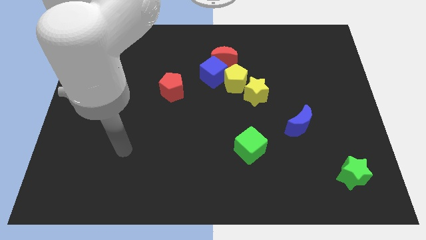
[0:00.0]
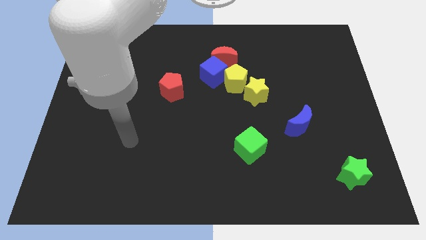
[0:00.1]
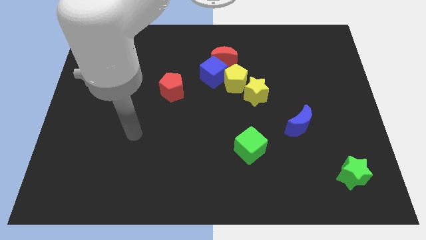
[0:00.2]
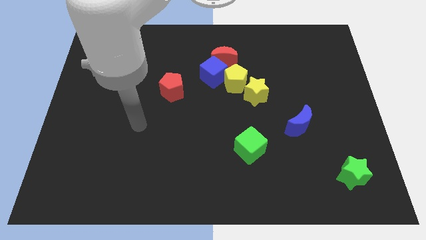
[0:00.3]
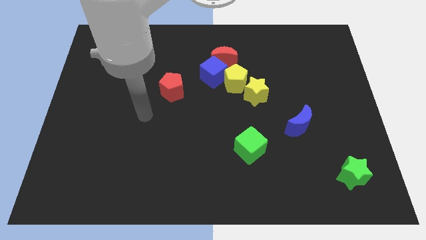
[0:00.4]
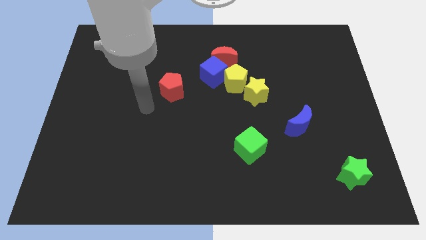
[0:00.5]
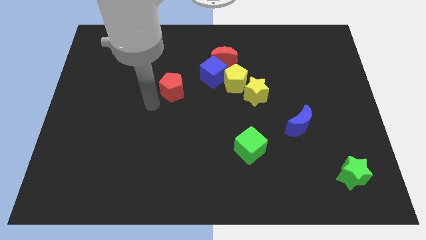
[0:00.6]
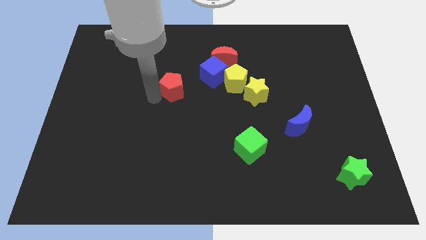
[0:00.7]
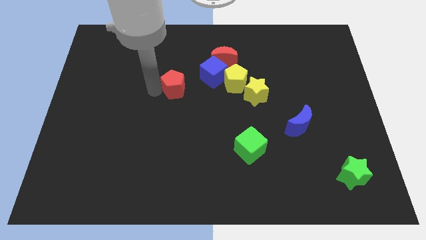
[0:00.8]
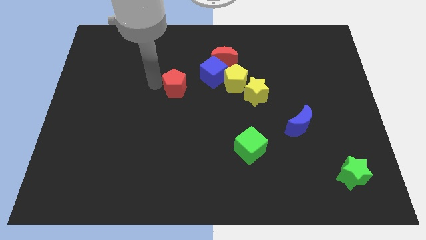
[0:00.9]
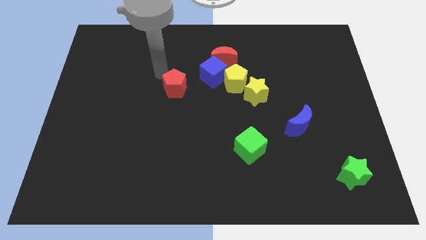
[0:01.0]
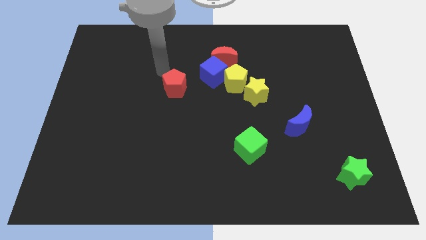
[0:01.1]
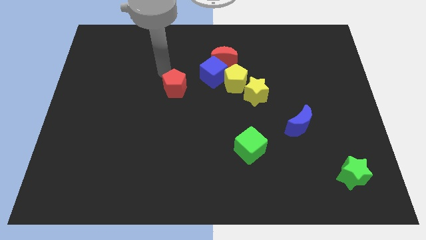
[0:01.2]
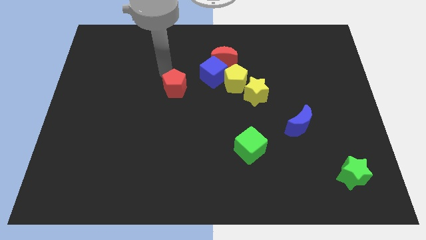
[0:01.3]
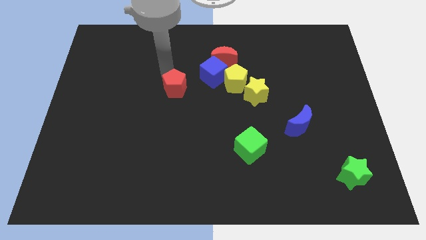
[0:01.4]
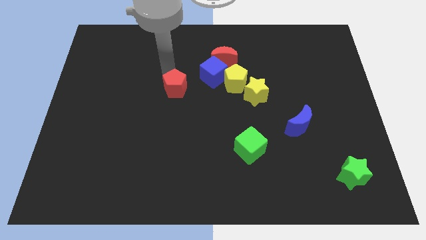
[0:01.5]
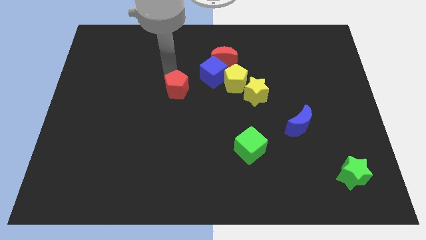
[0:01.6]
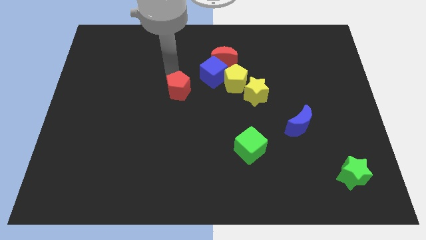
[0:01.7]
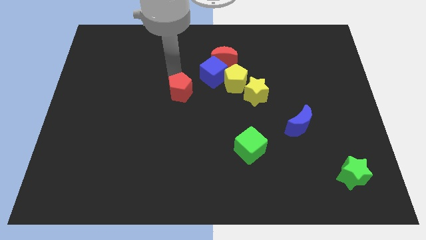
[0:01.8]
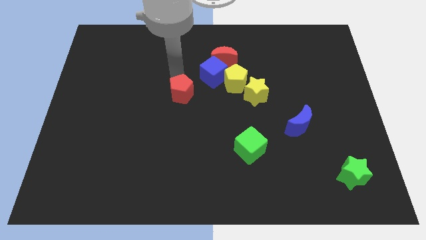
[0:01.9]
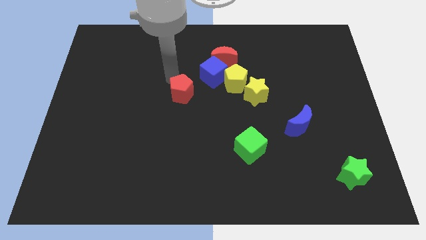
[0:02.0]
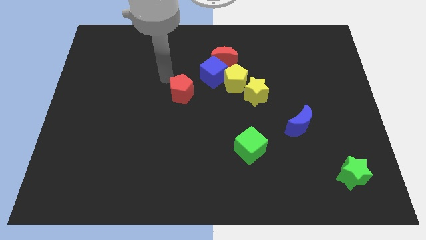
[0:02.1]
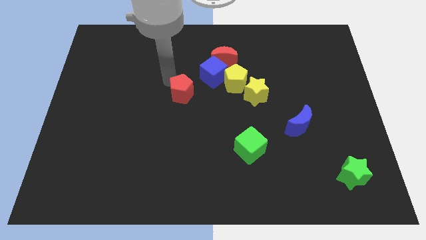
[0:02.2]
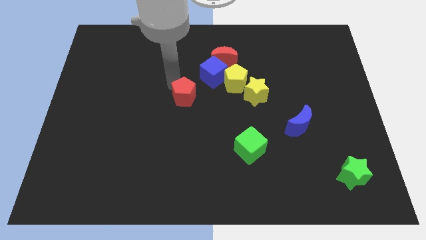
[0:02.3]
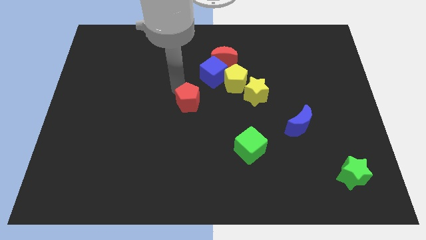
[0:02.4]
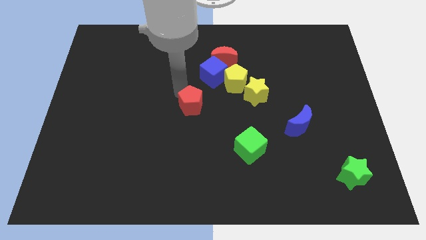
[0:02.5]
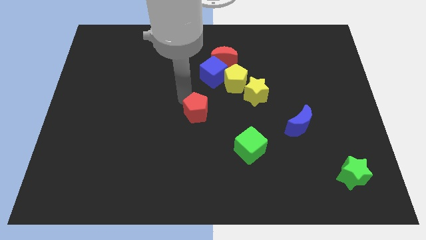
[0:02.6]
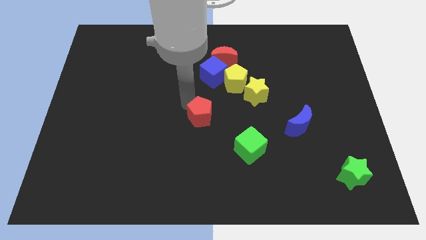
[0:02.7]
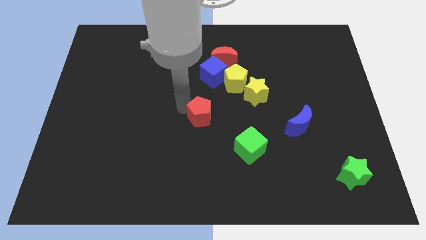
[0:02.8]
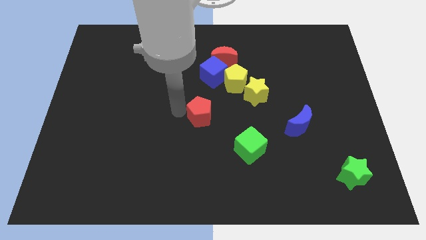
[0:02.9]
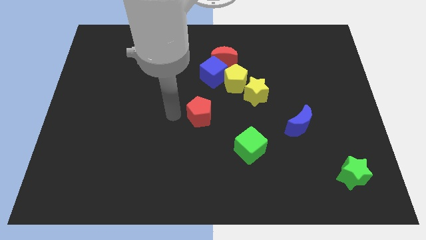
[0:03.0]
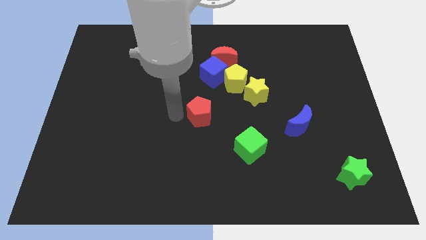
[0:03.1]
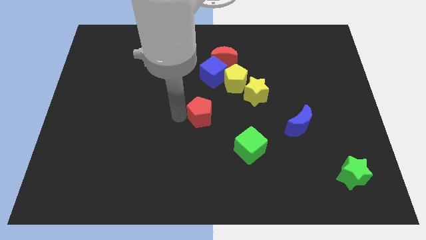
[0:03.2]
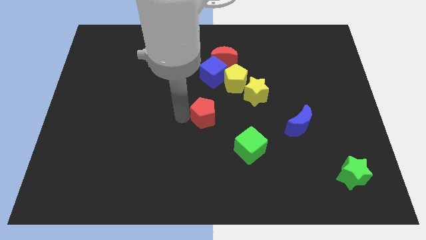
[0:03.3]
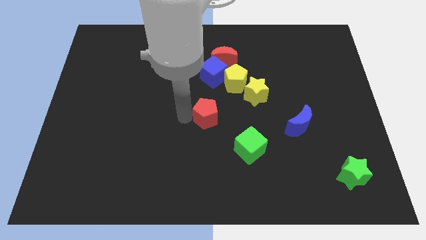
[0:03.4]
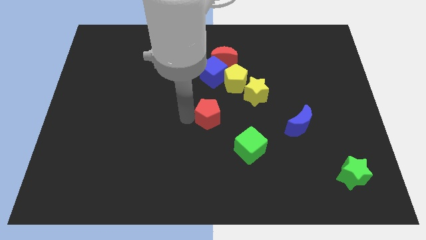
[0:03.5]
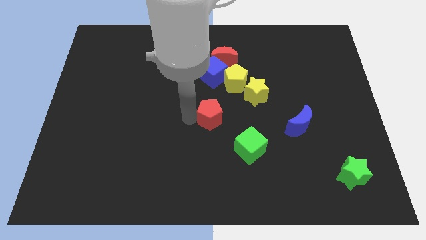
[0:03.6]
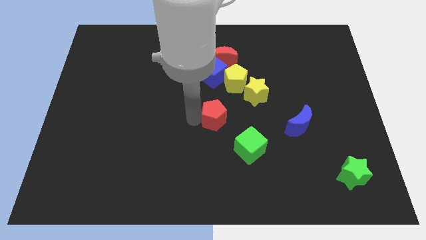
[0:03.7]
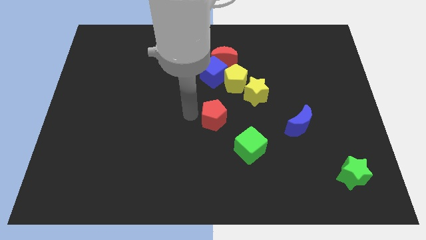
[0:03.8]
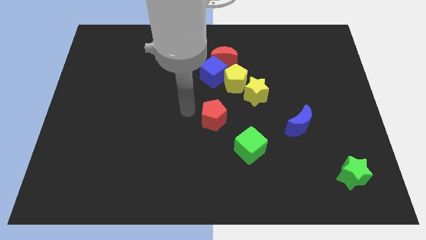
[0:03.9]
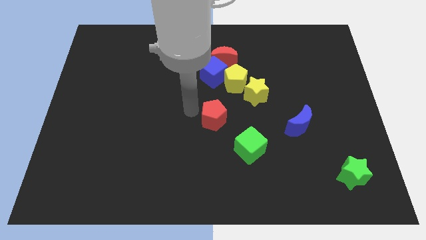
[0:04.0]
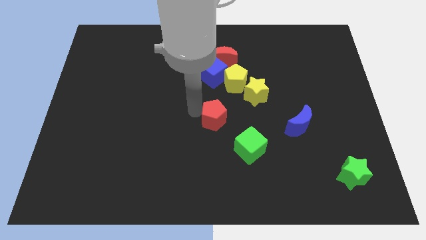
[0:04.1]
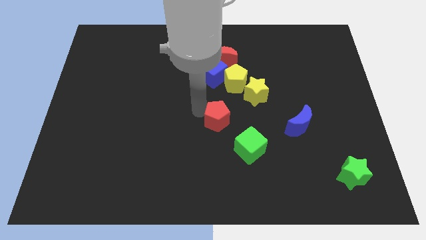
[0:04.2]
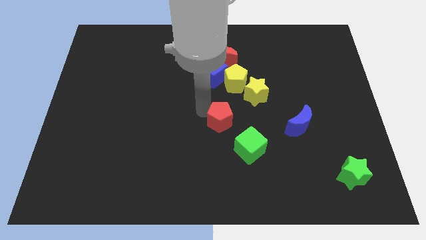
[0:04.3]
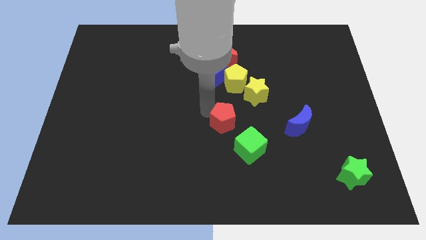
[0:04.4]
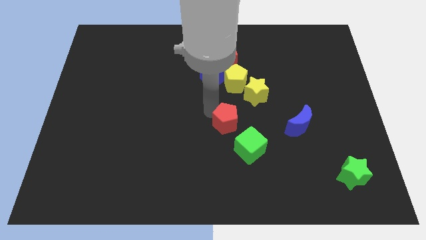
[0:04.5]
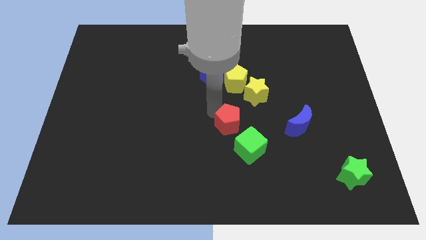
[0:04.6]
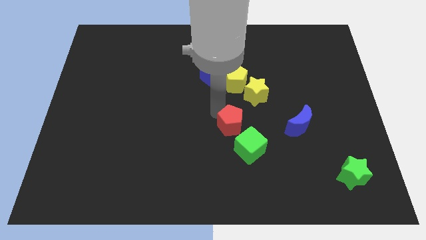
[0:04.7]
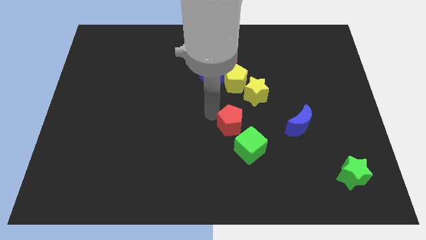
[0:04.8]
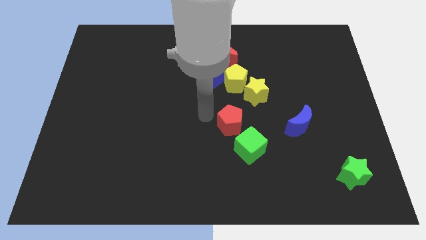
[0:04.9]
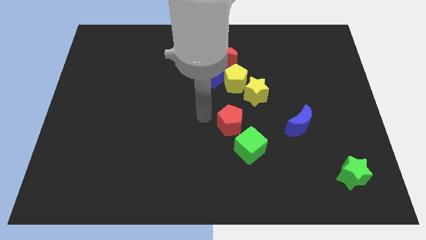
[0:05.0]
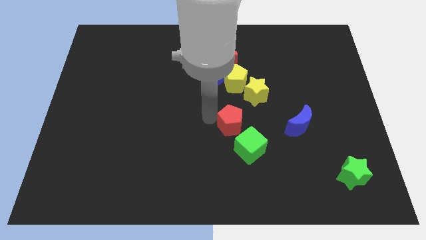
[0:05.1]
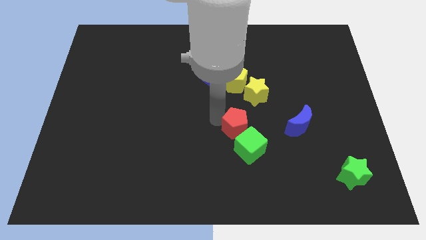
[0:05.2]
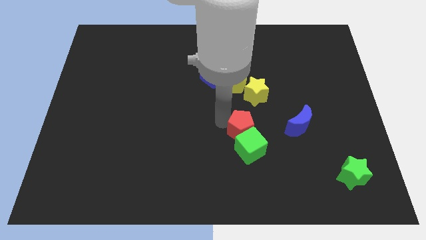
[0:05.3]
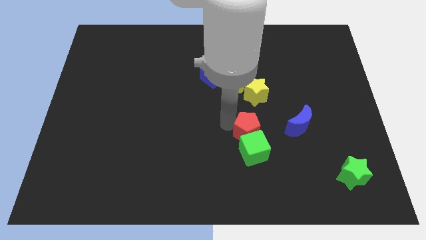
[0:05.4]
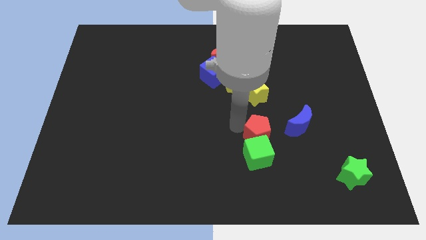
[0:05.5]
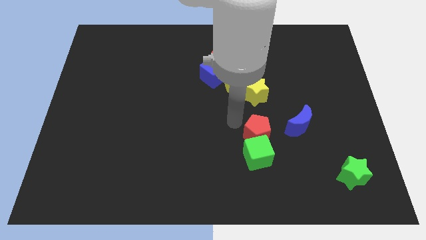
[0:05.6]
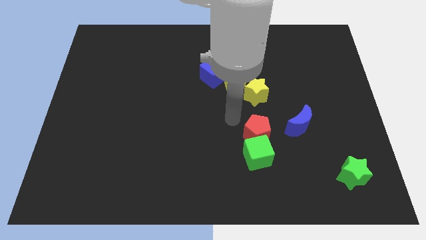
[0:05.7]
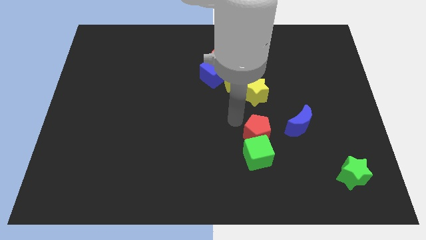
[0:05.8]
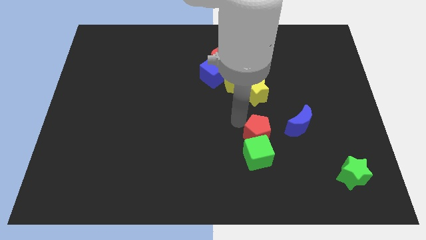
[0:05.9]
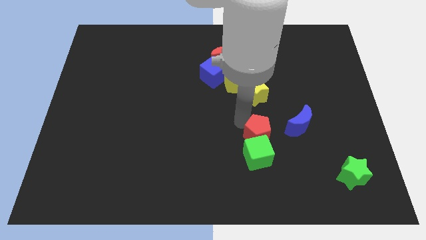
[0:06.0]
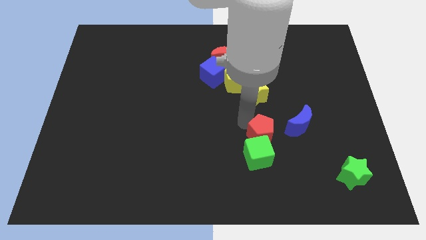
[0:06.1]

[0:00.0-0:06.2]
move the red pentagon to the bottom left of the blue moon

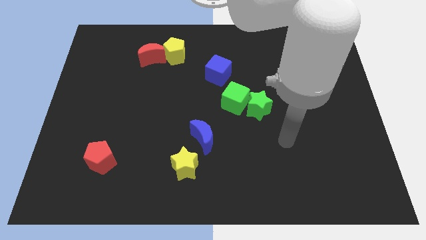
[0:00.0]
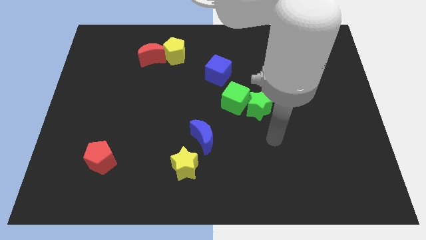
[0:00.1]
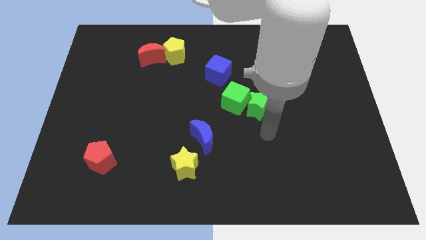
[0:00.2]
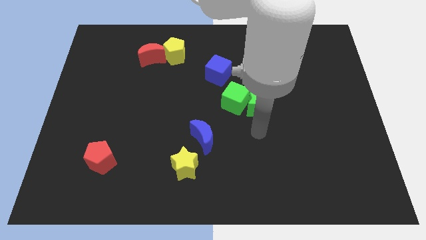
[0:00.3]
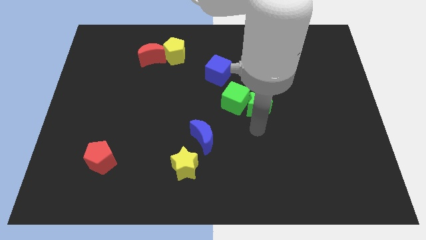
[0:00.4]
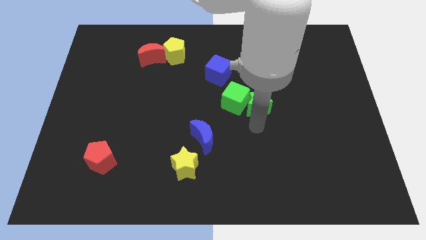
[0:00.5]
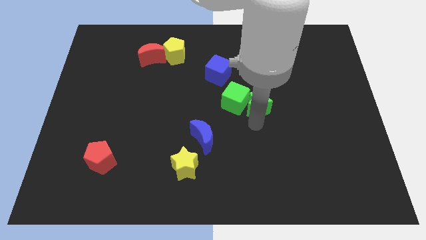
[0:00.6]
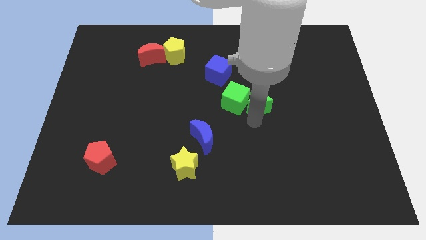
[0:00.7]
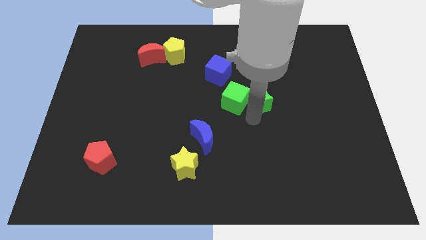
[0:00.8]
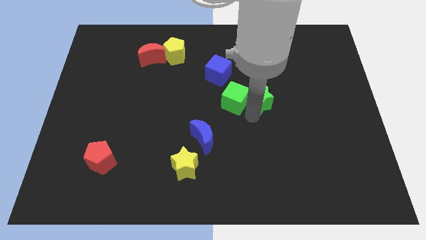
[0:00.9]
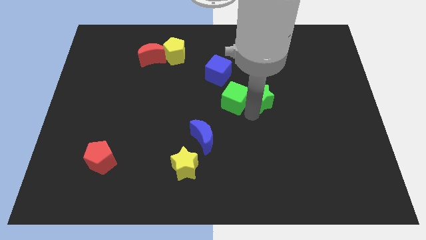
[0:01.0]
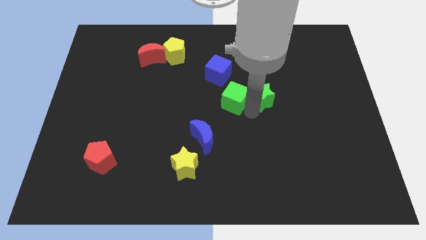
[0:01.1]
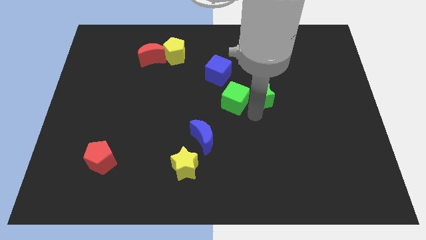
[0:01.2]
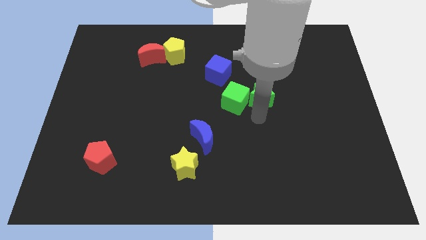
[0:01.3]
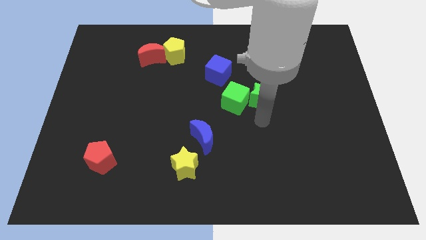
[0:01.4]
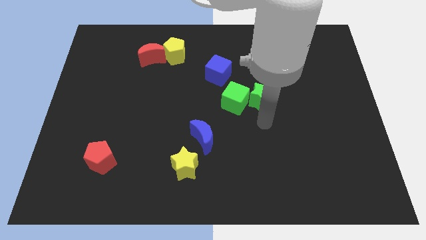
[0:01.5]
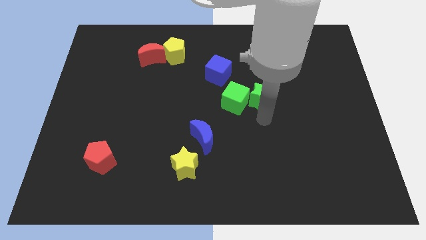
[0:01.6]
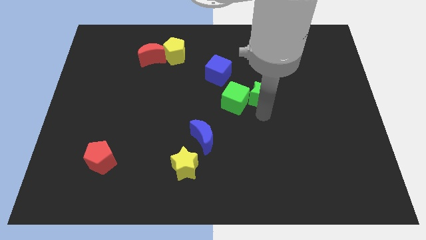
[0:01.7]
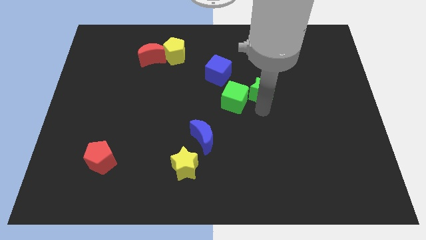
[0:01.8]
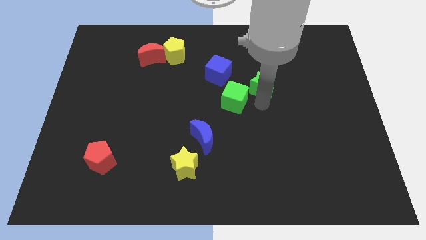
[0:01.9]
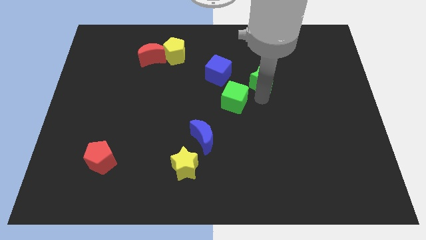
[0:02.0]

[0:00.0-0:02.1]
slide the green star to the right side of the blue cube
